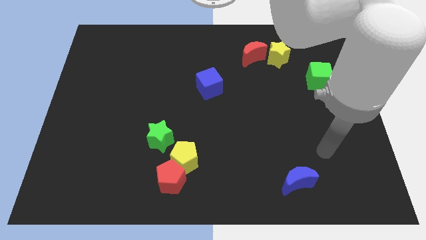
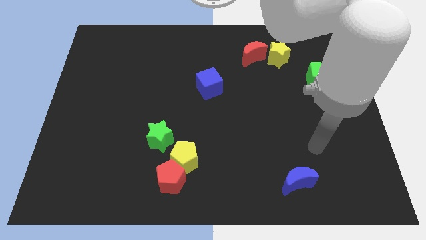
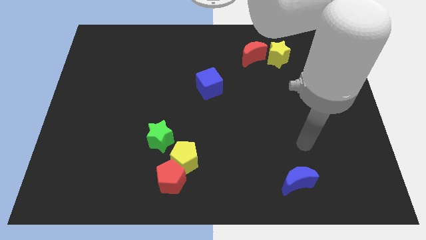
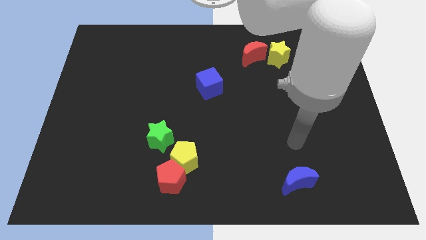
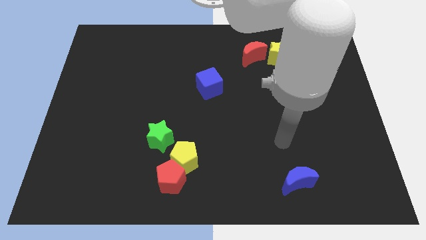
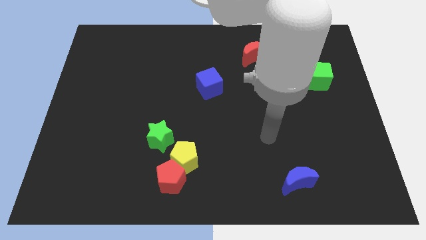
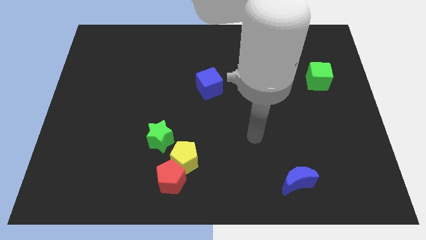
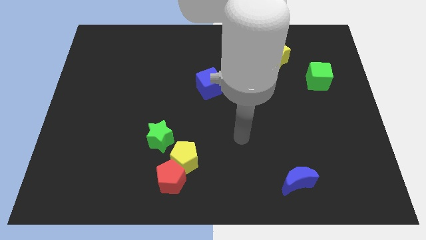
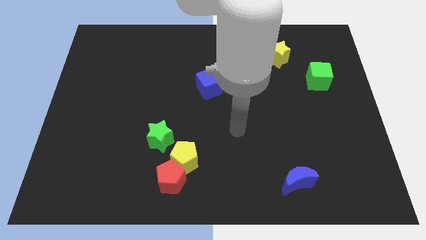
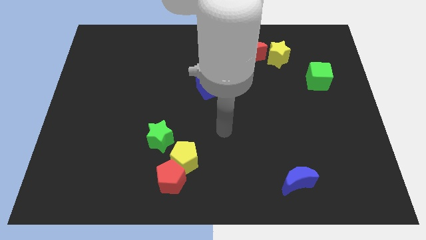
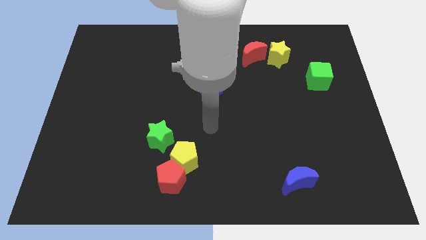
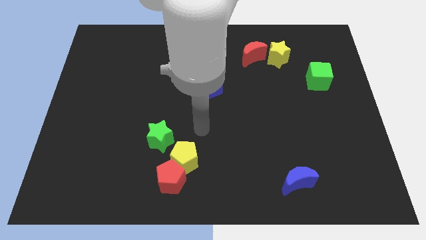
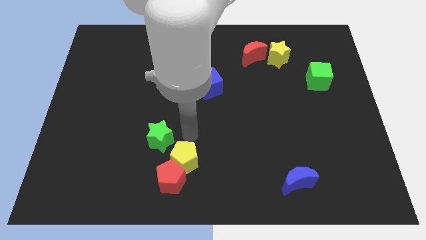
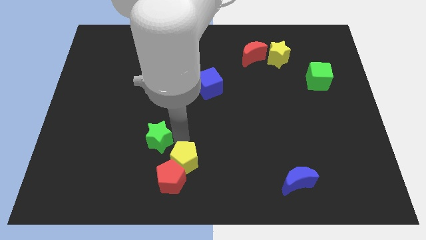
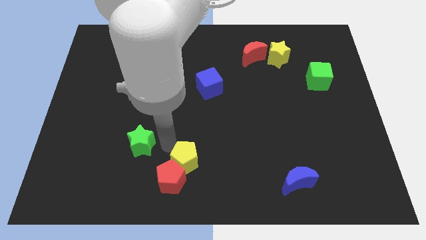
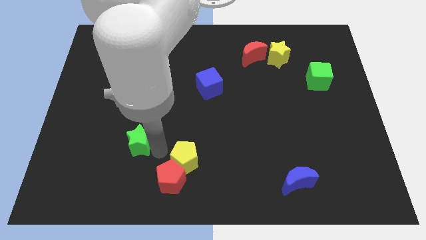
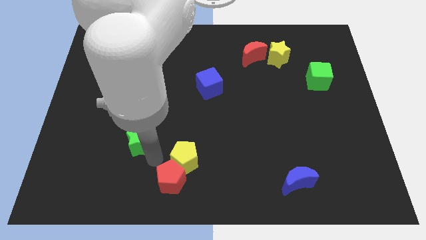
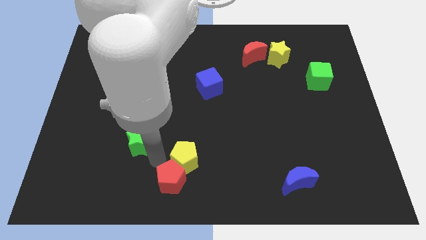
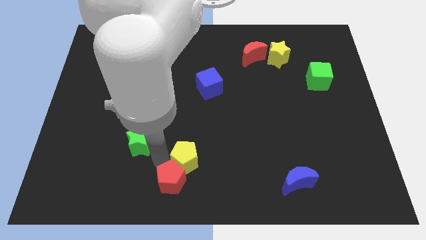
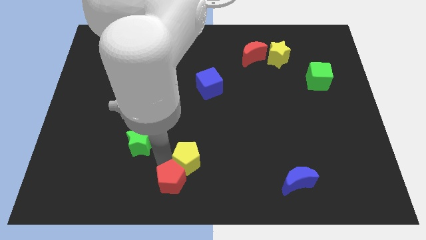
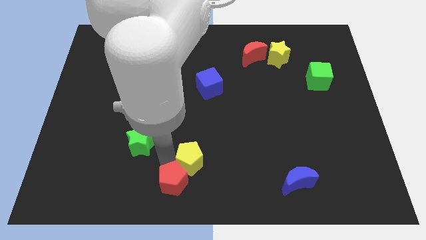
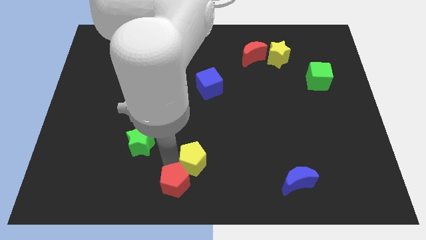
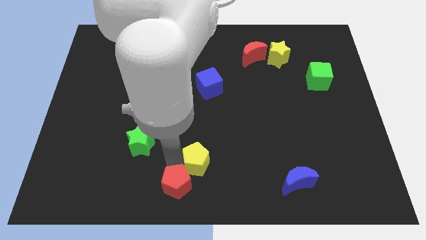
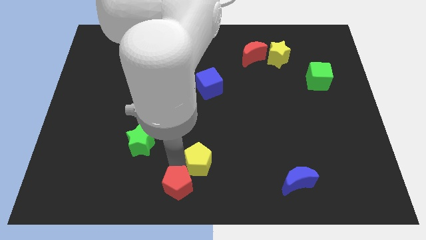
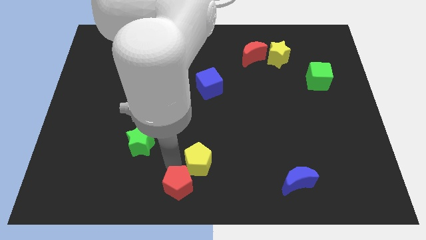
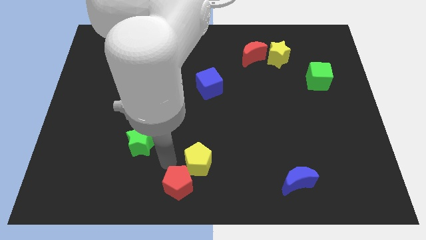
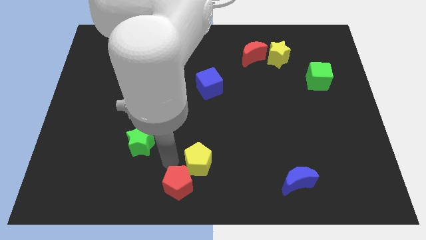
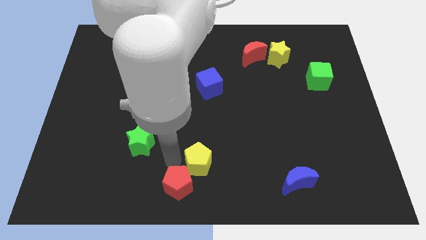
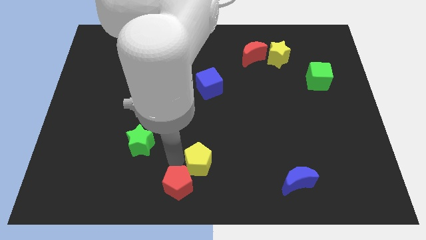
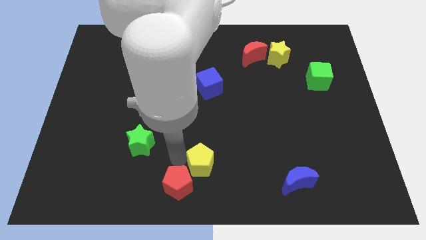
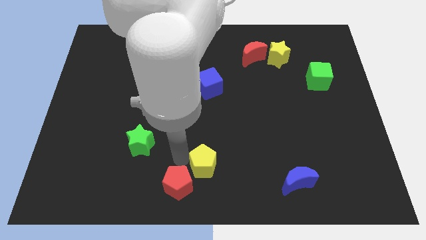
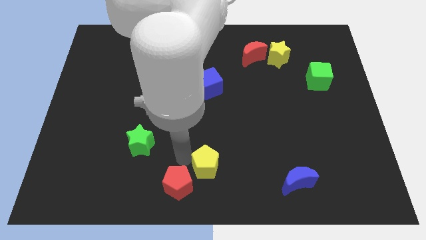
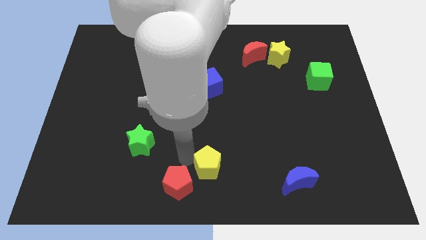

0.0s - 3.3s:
pull the yellow pentagon apart from the red pentagon and green star

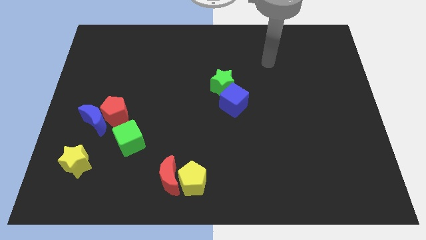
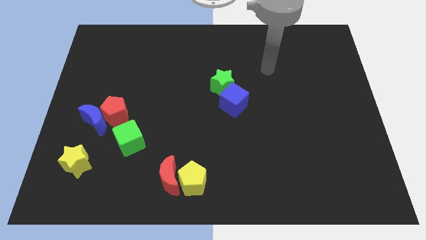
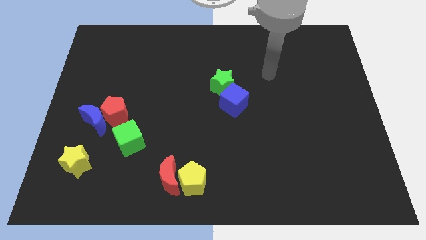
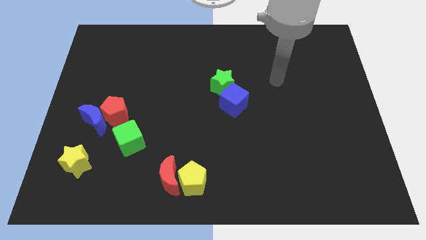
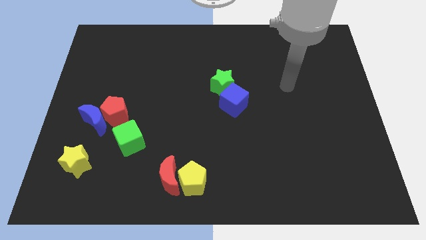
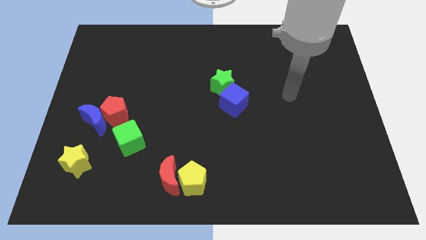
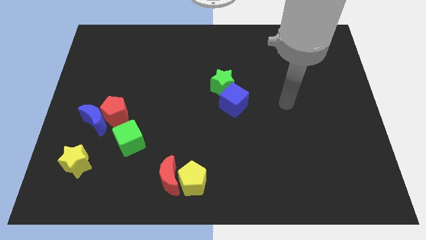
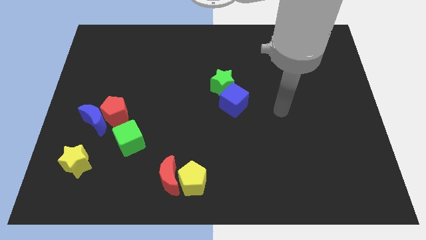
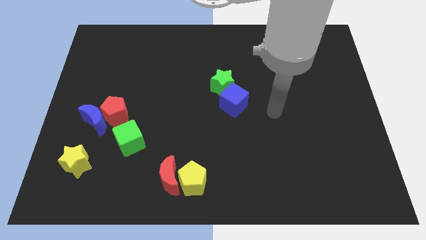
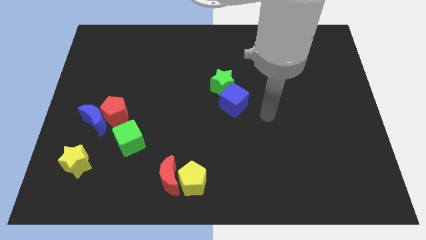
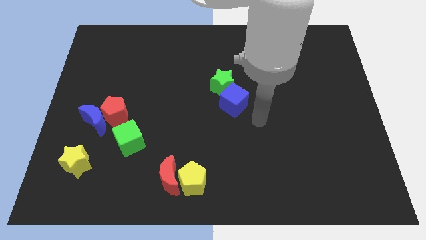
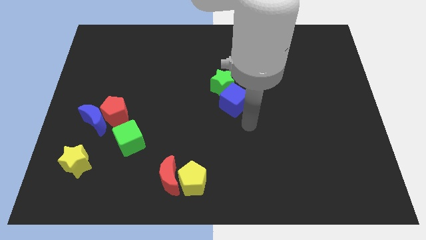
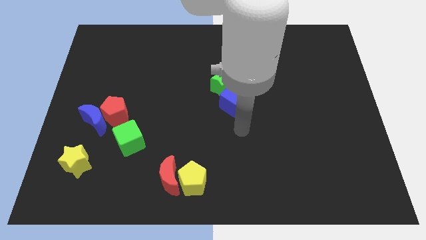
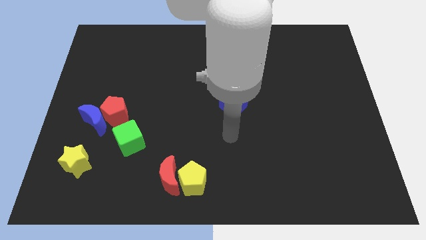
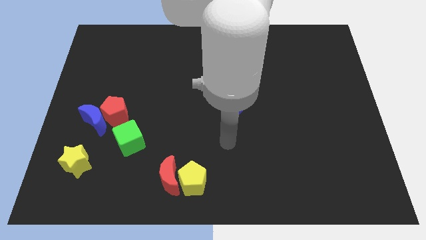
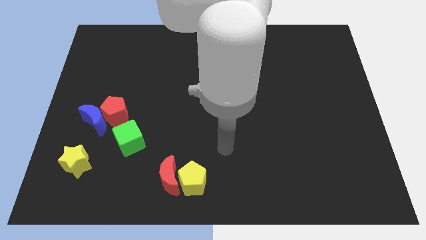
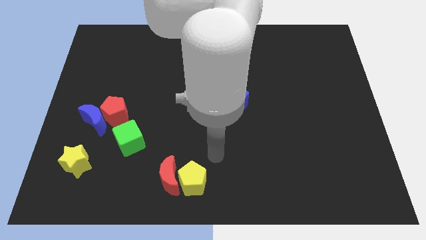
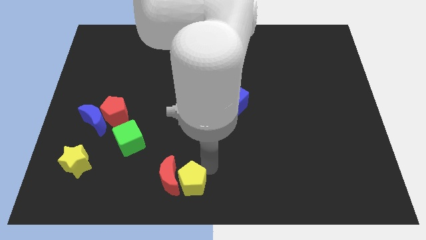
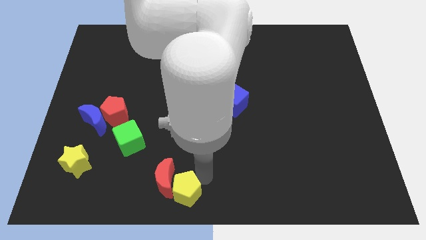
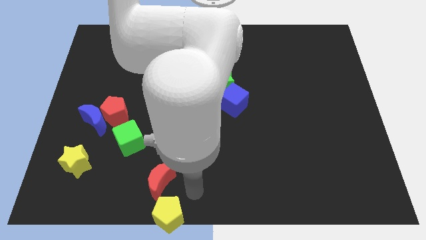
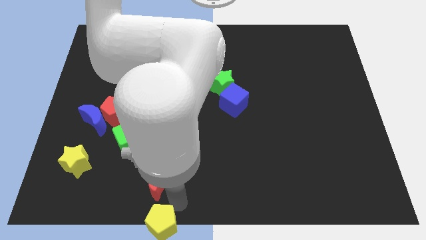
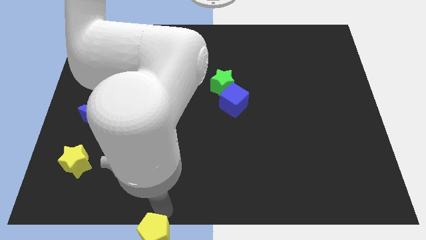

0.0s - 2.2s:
pull the red moon apart from the yellow pentagon

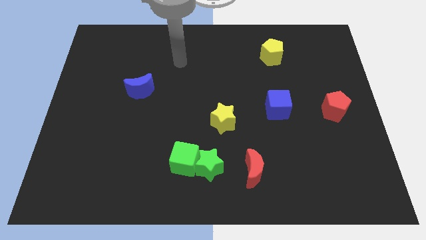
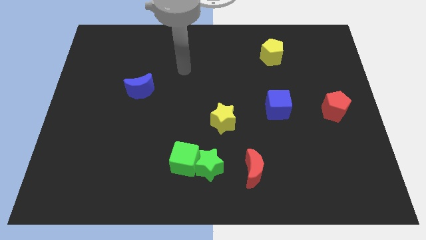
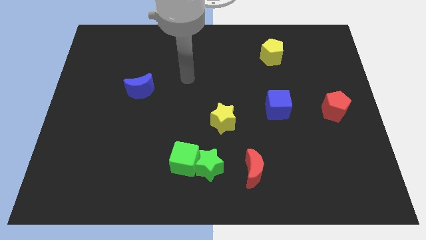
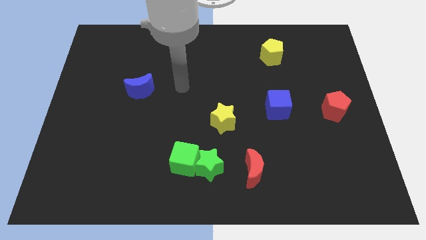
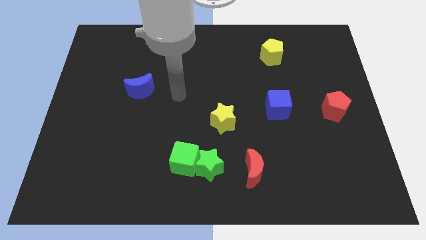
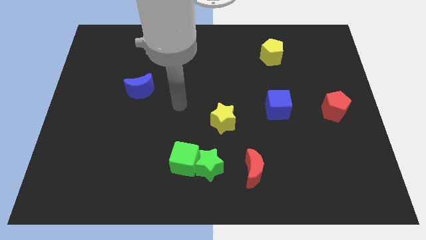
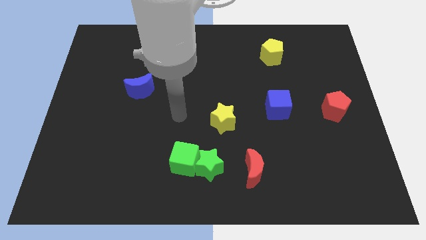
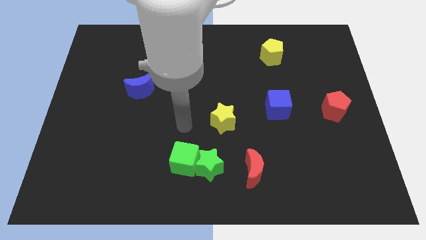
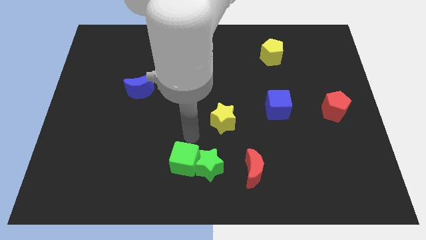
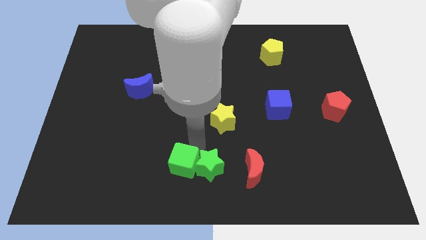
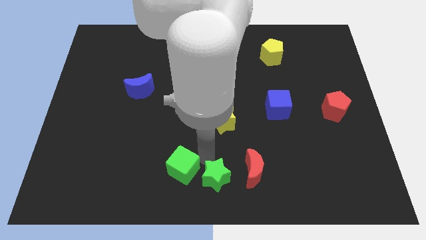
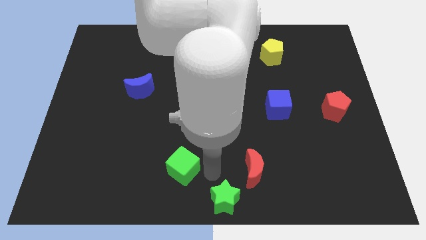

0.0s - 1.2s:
separate the green cube from the green star

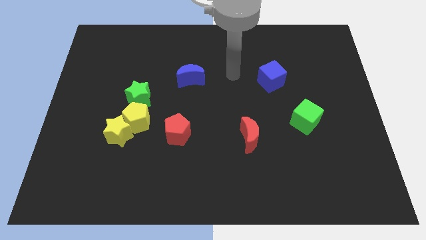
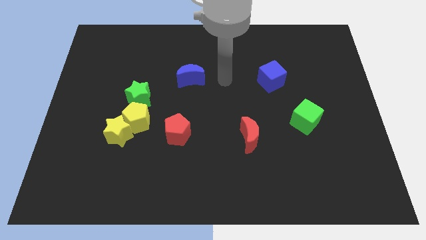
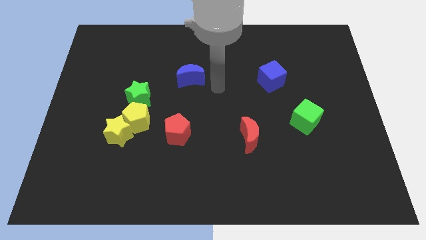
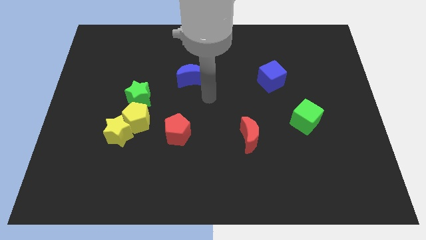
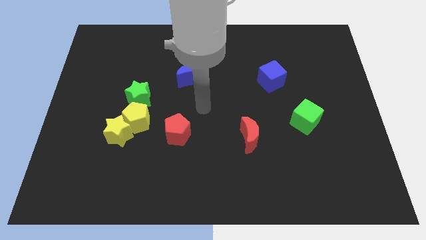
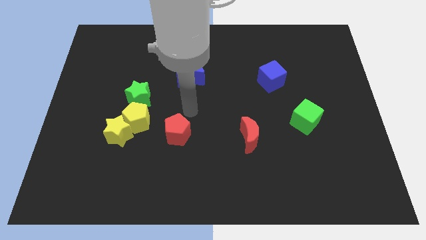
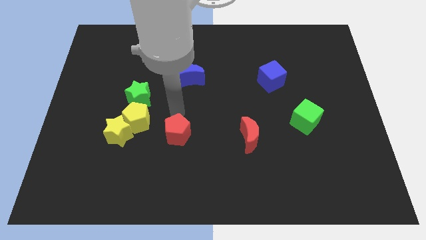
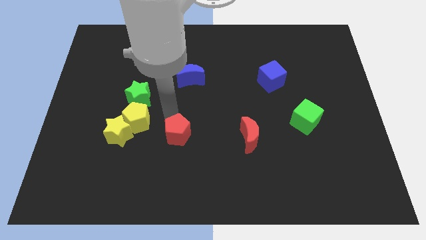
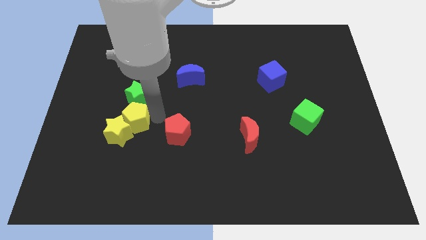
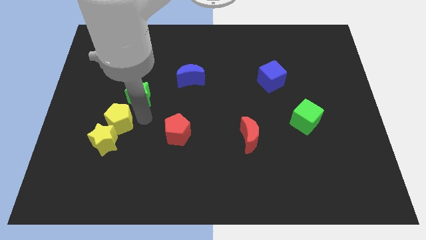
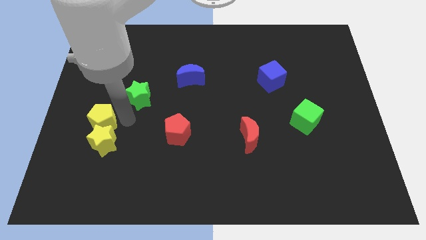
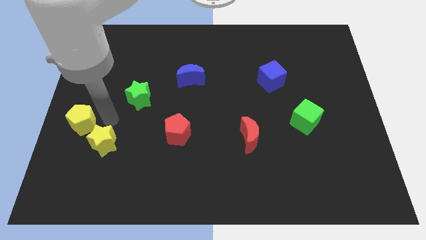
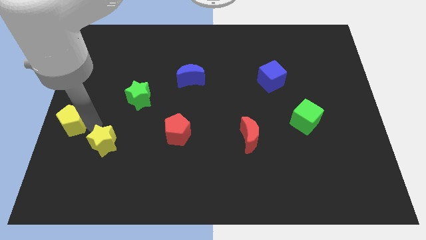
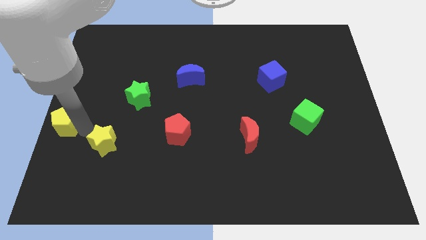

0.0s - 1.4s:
move the yellow star away from the yellow pentagon

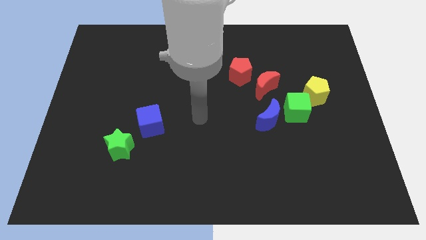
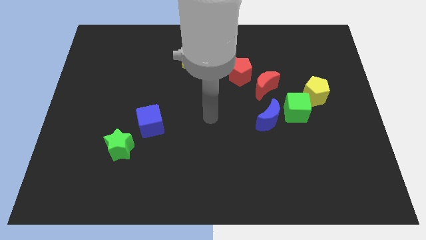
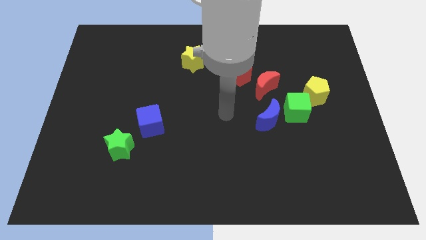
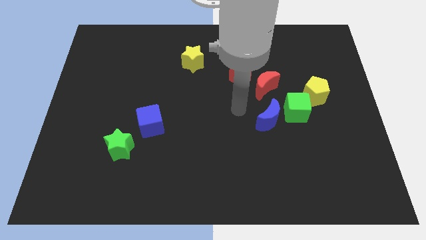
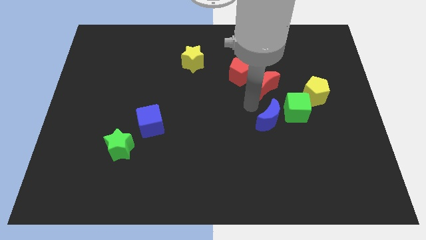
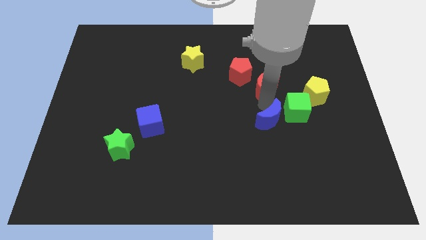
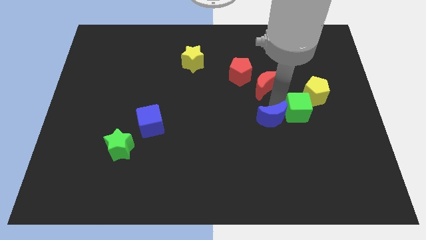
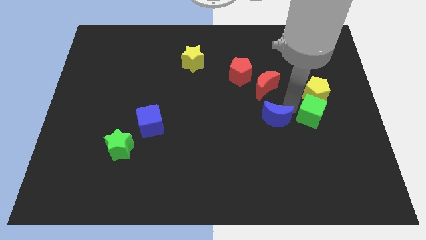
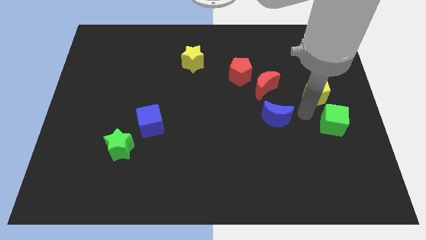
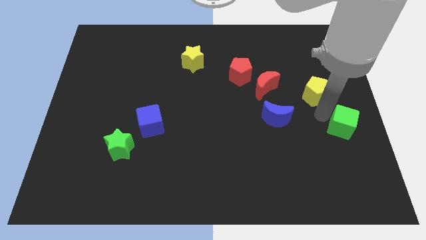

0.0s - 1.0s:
move the yellow pentagon away from the green cube

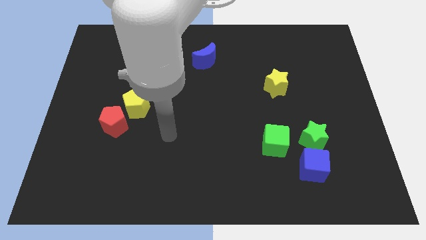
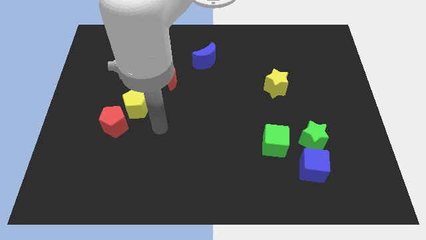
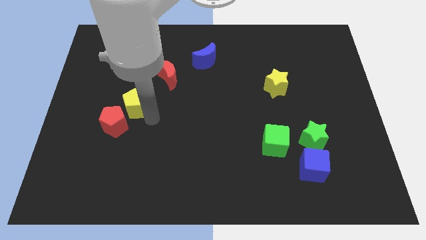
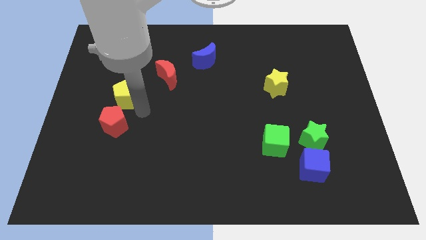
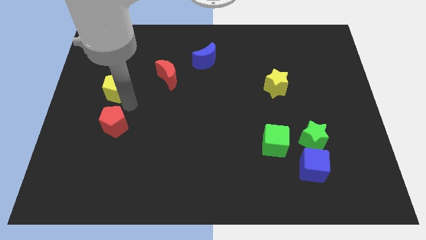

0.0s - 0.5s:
pull the red pentagon apart from the yellow pentagon
